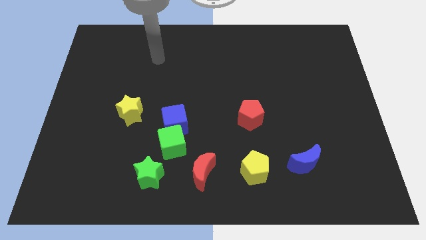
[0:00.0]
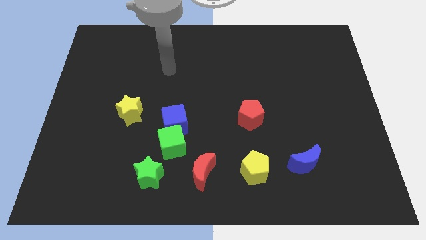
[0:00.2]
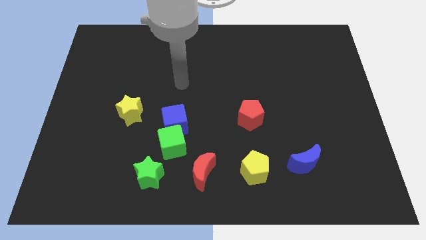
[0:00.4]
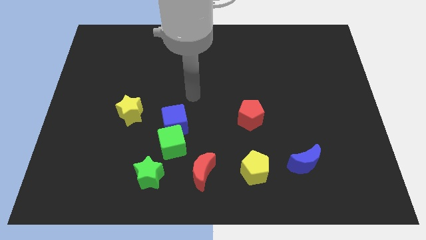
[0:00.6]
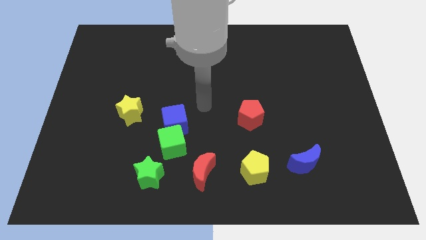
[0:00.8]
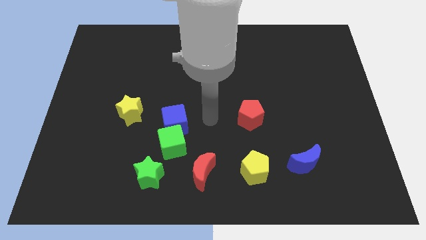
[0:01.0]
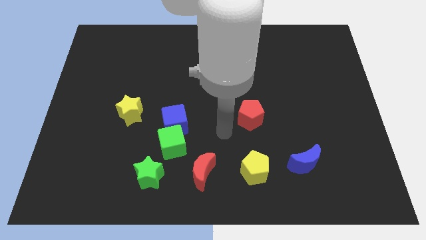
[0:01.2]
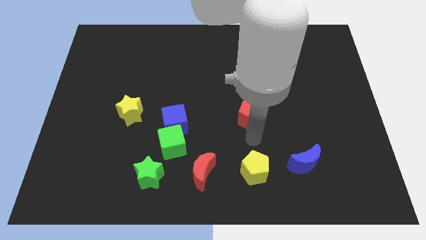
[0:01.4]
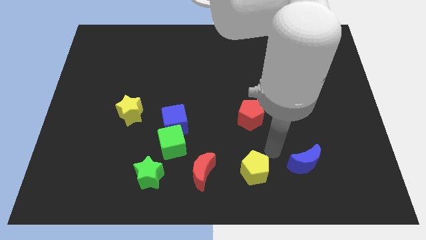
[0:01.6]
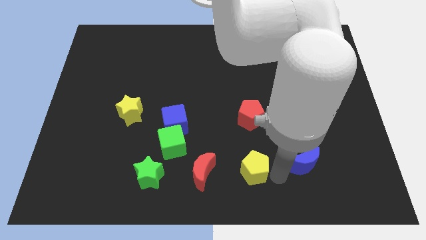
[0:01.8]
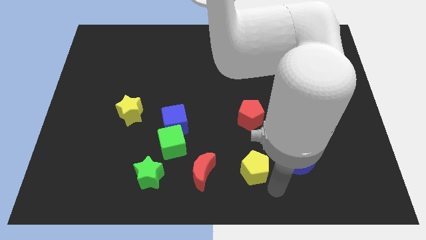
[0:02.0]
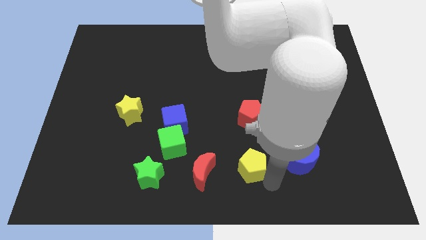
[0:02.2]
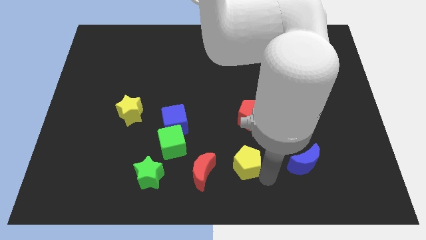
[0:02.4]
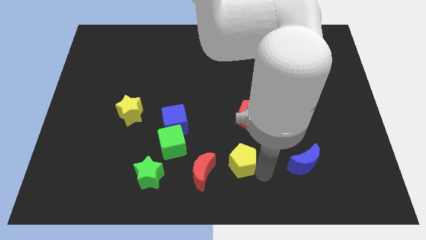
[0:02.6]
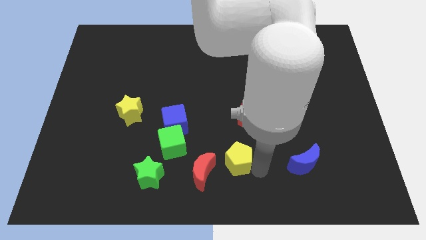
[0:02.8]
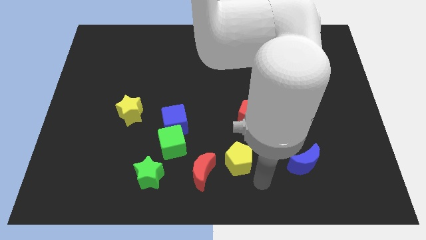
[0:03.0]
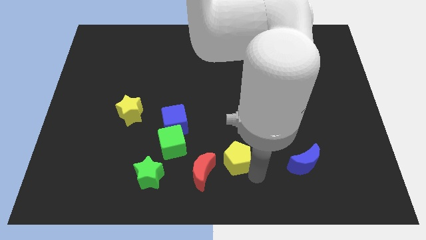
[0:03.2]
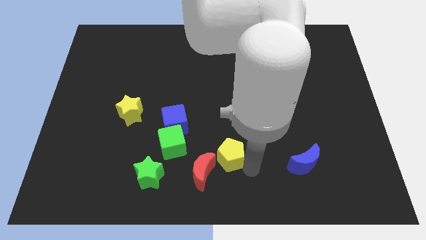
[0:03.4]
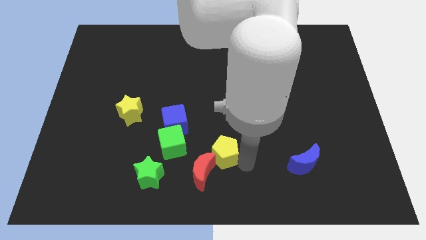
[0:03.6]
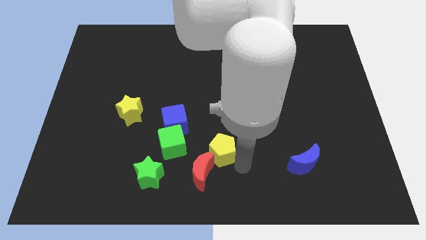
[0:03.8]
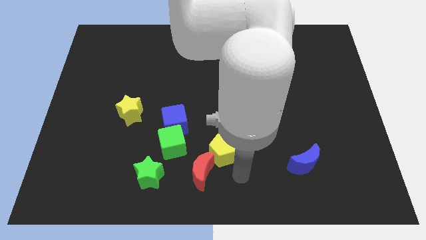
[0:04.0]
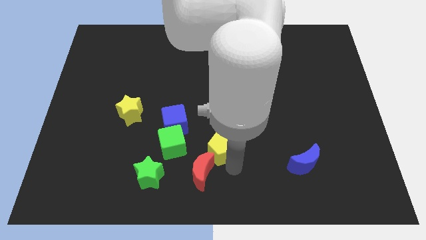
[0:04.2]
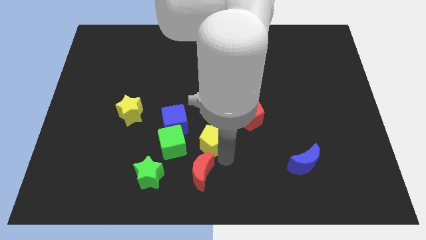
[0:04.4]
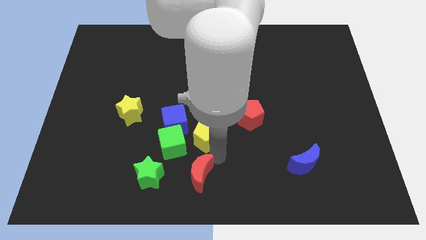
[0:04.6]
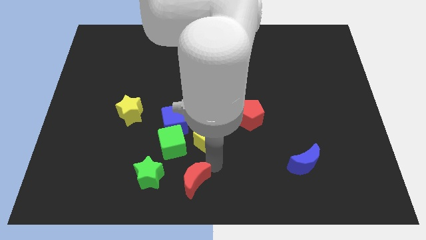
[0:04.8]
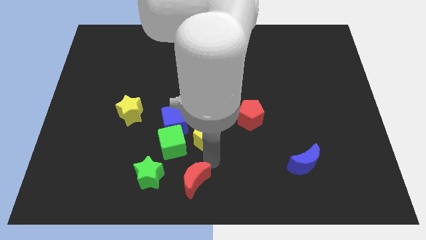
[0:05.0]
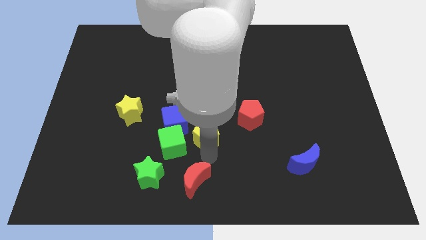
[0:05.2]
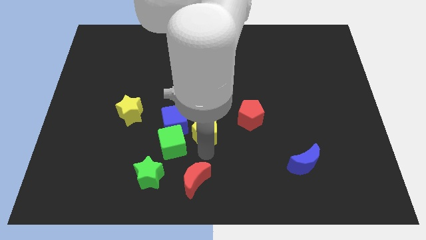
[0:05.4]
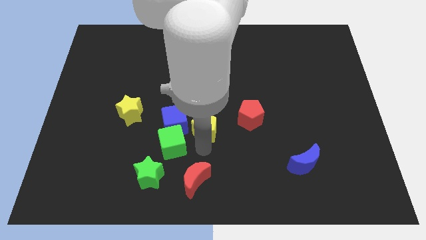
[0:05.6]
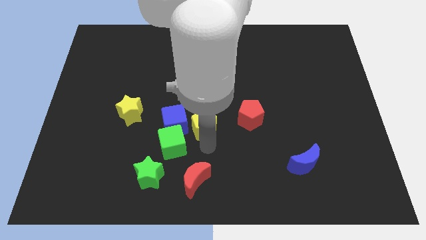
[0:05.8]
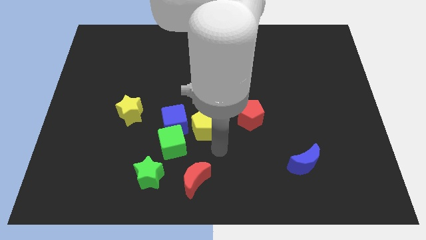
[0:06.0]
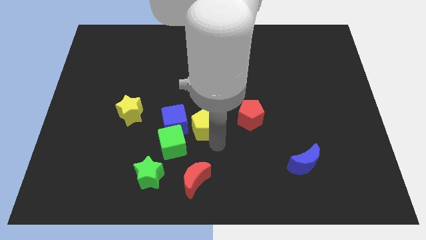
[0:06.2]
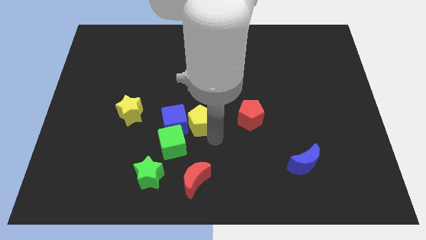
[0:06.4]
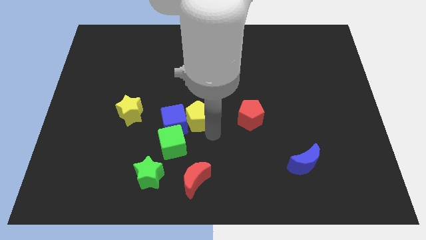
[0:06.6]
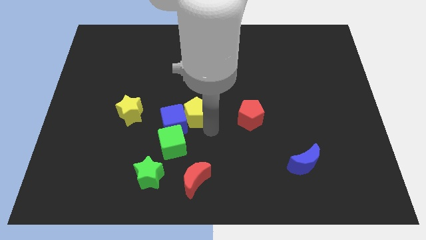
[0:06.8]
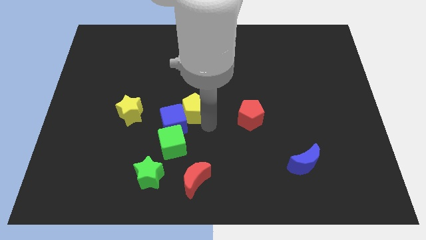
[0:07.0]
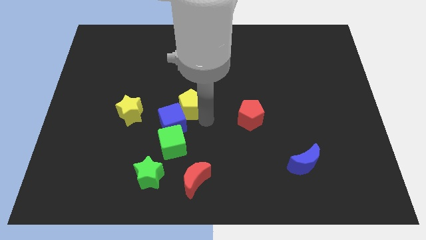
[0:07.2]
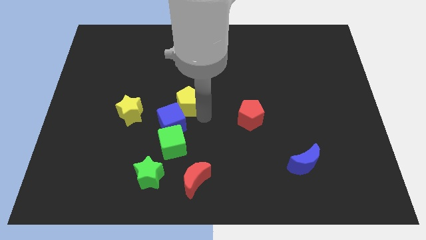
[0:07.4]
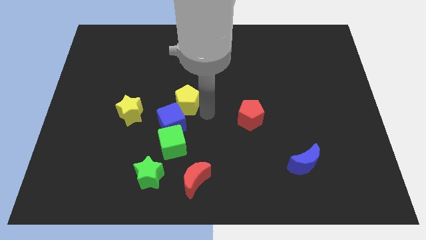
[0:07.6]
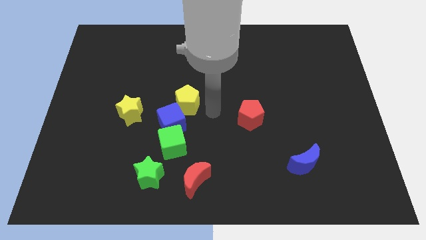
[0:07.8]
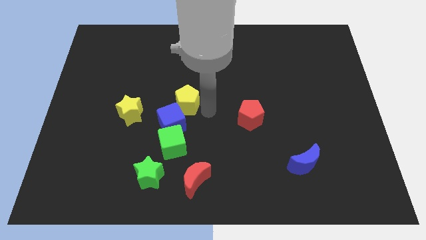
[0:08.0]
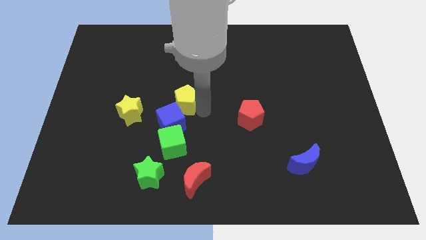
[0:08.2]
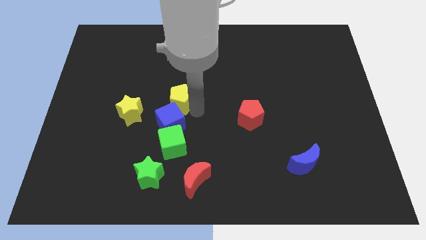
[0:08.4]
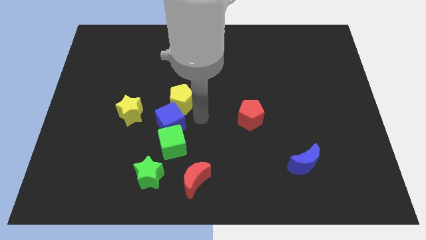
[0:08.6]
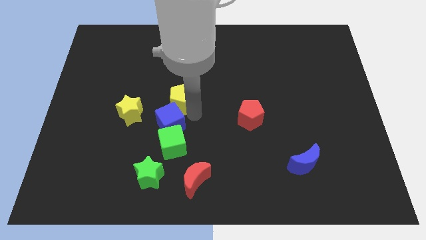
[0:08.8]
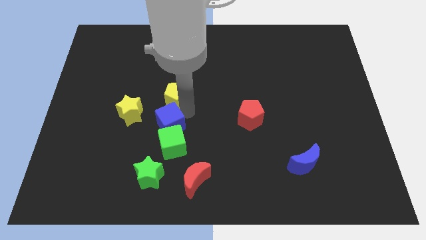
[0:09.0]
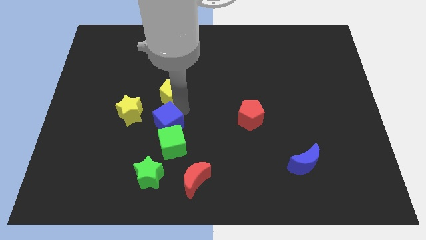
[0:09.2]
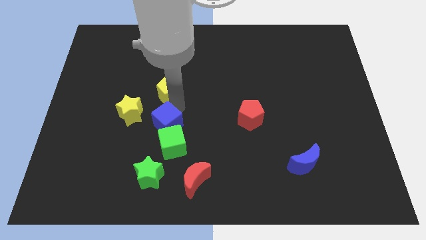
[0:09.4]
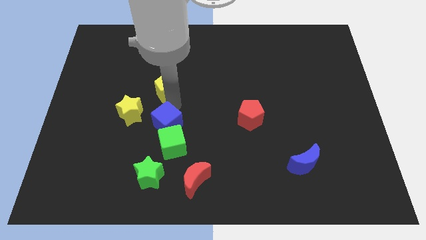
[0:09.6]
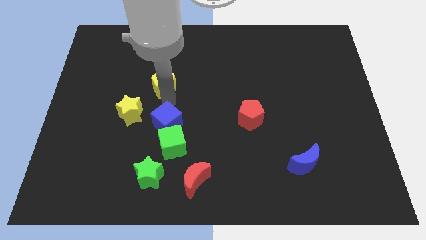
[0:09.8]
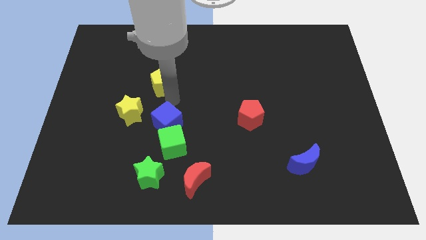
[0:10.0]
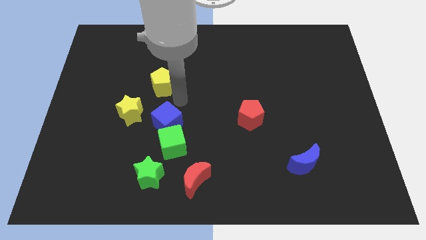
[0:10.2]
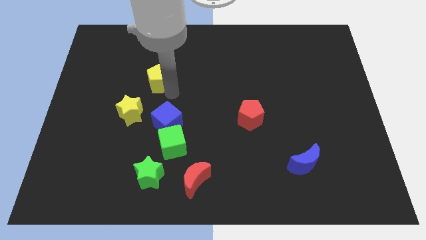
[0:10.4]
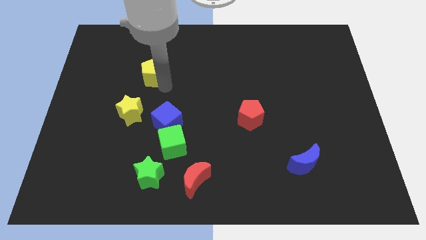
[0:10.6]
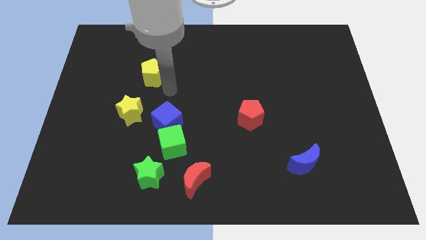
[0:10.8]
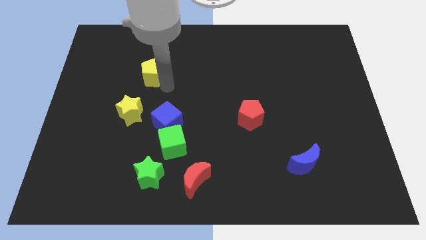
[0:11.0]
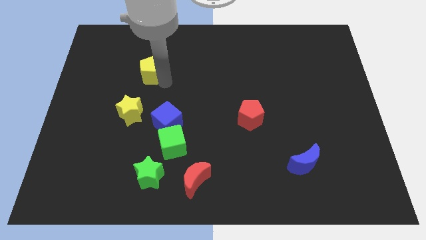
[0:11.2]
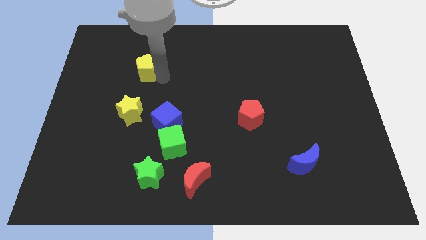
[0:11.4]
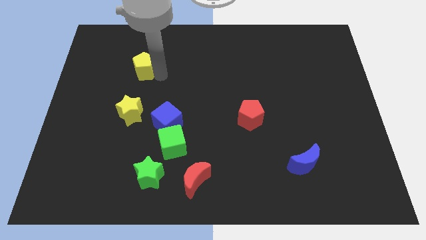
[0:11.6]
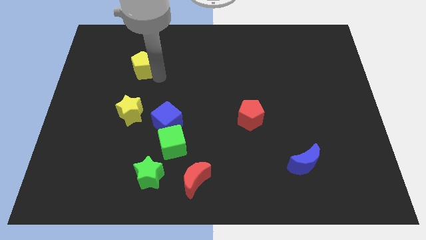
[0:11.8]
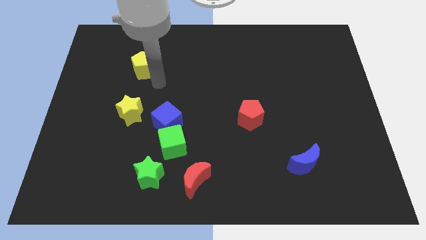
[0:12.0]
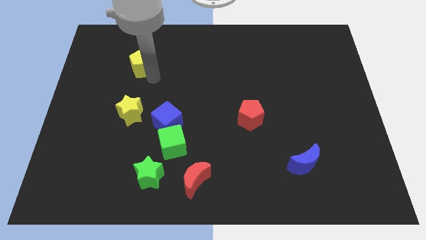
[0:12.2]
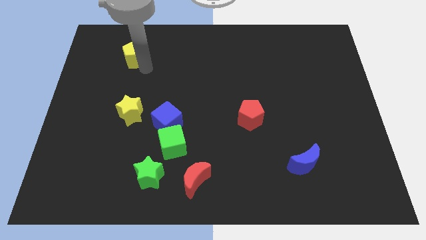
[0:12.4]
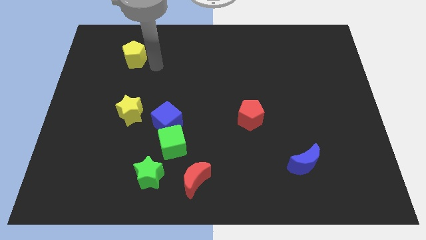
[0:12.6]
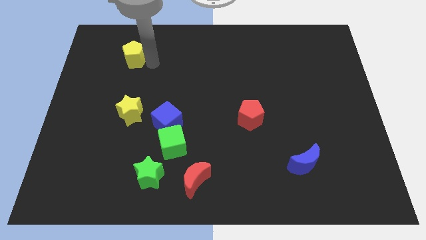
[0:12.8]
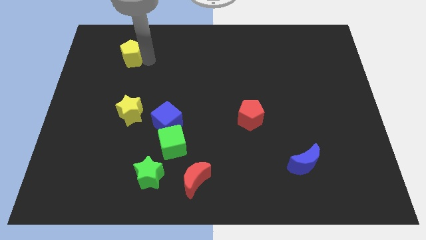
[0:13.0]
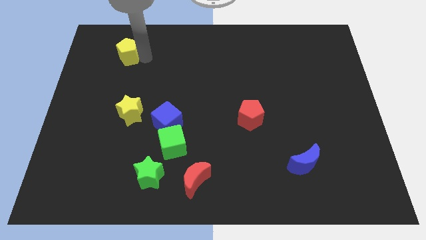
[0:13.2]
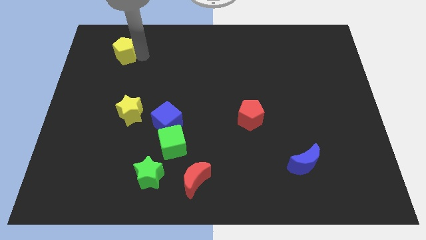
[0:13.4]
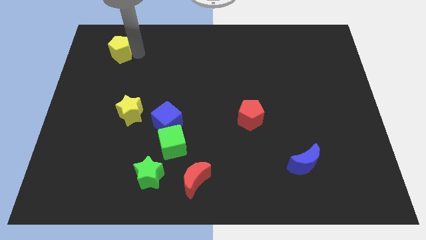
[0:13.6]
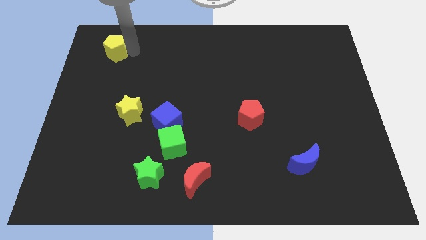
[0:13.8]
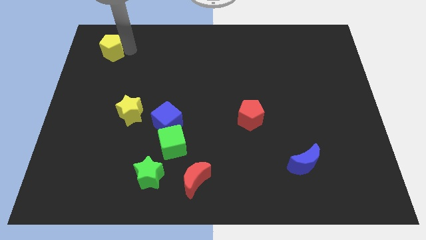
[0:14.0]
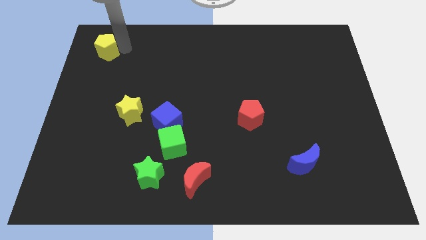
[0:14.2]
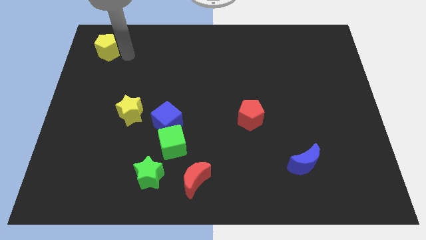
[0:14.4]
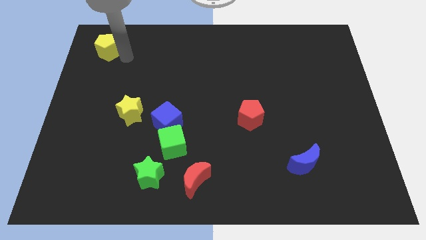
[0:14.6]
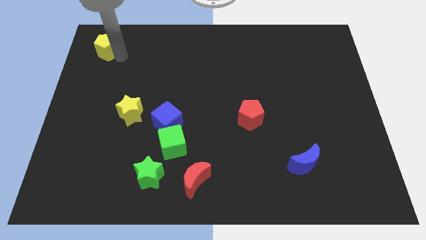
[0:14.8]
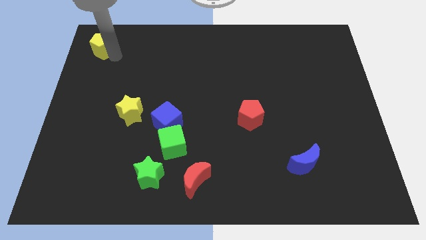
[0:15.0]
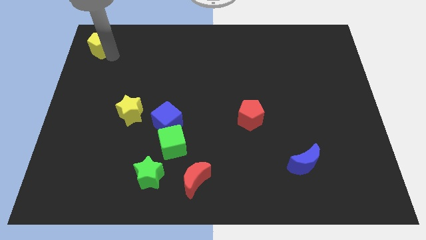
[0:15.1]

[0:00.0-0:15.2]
move the yellow pentagon to the top left
